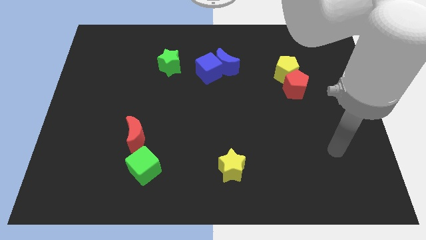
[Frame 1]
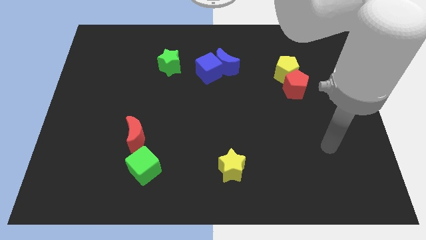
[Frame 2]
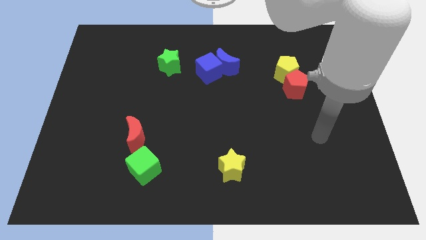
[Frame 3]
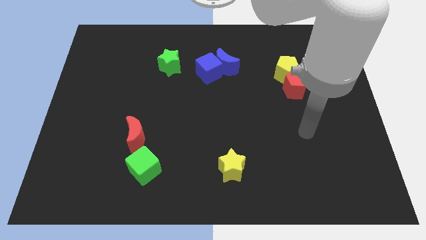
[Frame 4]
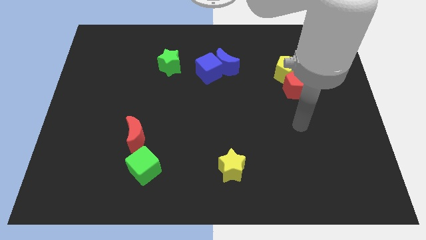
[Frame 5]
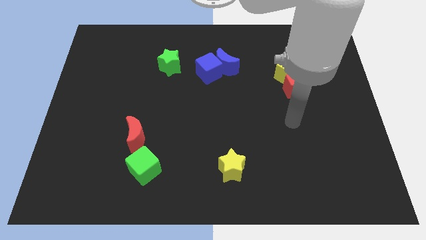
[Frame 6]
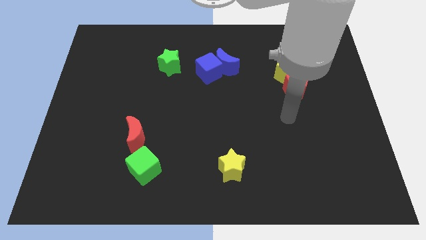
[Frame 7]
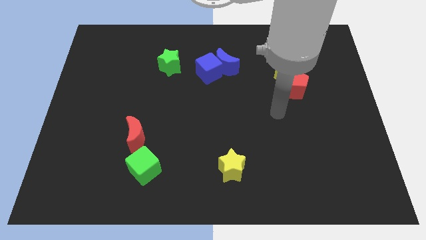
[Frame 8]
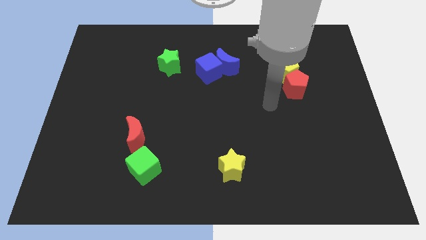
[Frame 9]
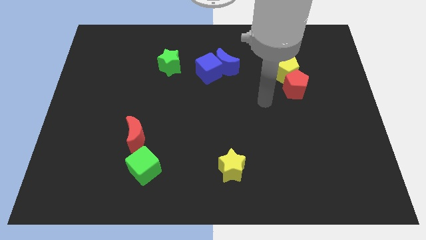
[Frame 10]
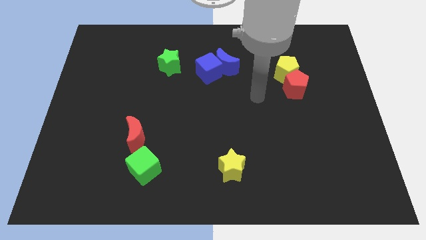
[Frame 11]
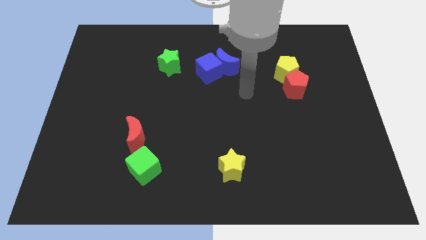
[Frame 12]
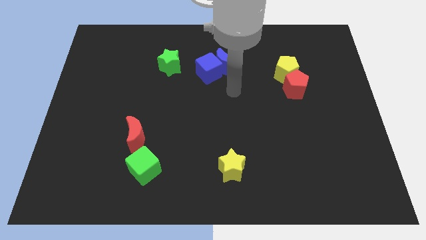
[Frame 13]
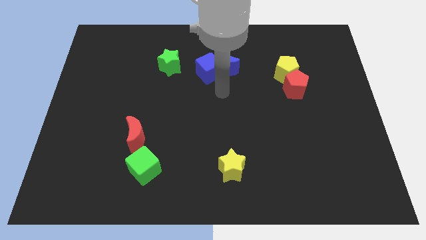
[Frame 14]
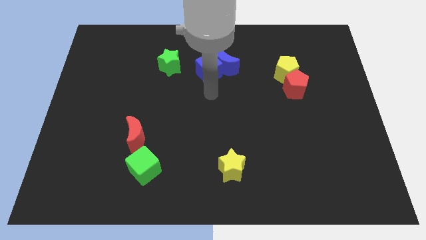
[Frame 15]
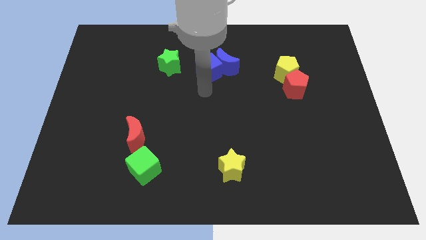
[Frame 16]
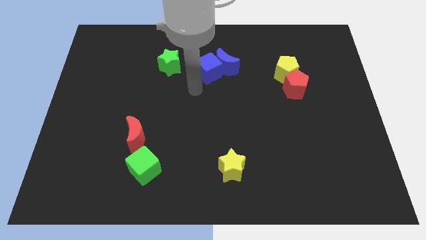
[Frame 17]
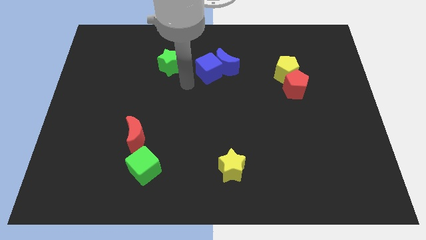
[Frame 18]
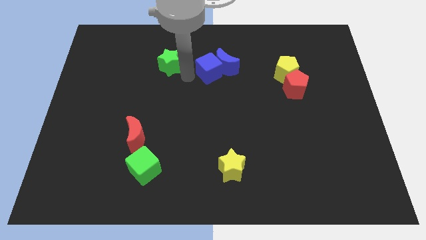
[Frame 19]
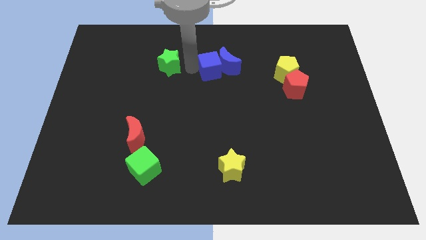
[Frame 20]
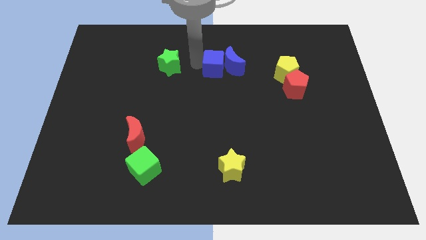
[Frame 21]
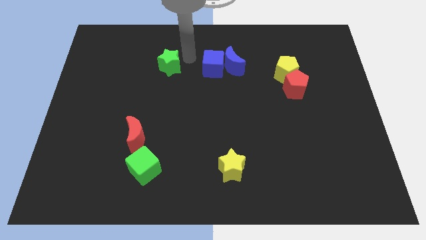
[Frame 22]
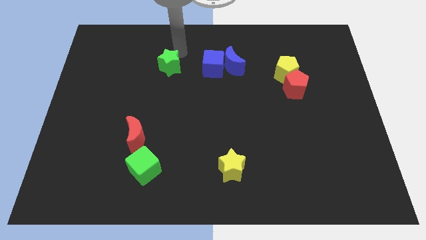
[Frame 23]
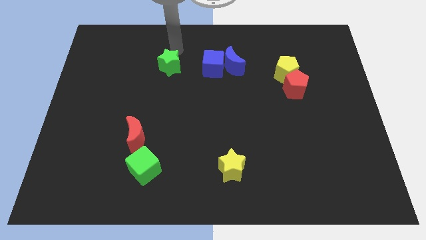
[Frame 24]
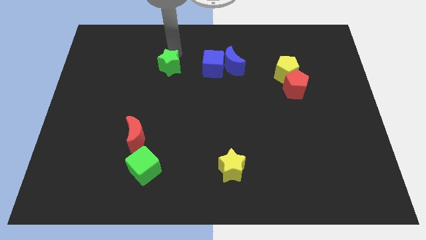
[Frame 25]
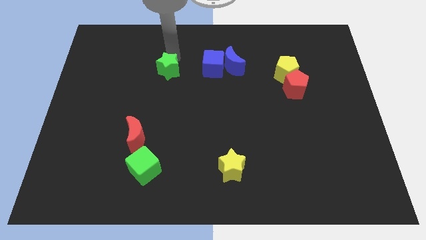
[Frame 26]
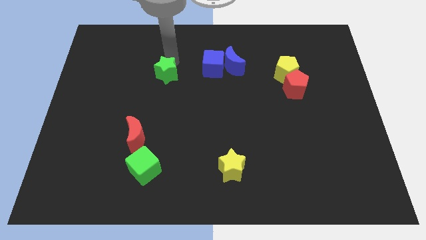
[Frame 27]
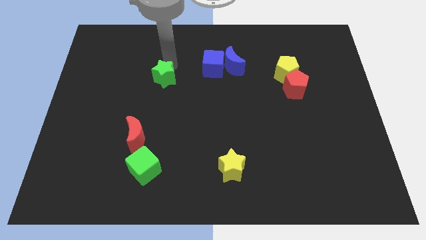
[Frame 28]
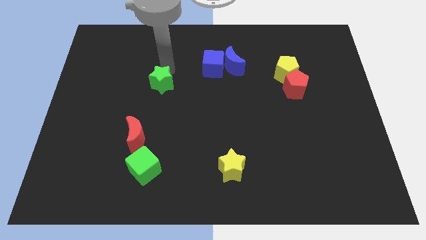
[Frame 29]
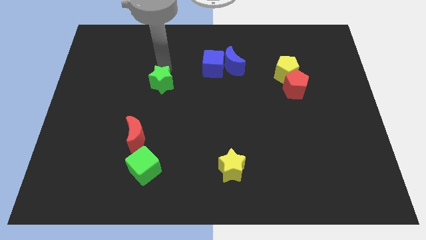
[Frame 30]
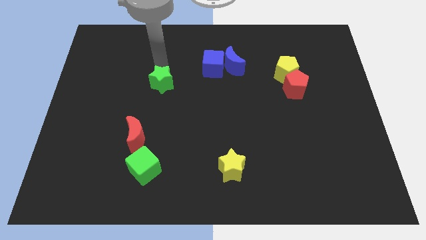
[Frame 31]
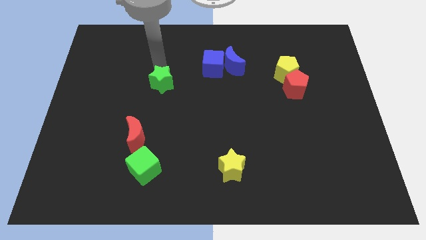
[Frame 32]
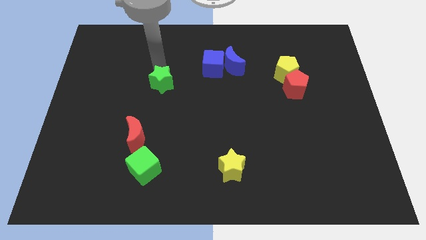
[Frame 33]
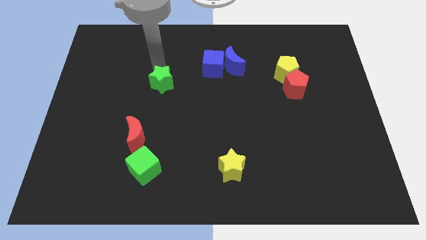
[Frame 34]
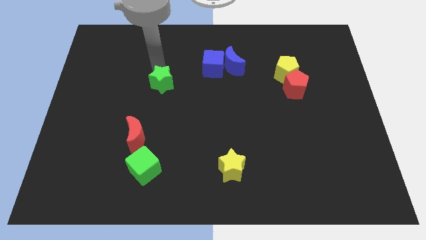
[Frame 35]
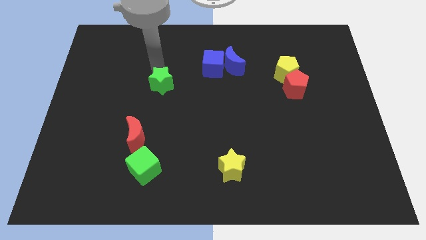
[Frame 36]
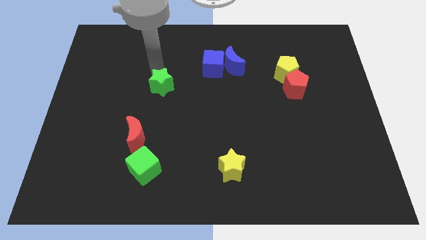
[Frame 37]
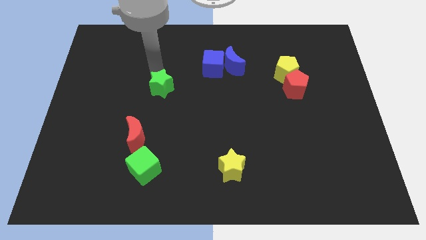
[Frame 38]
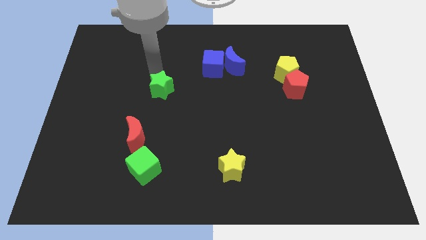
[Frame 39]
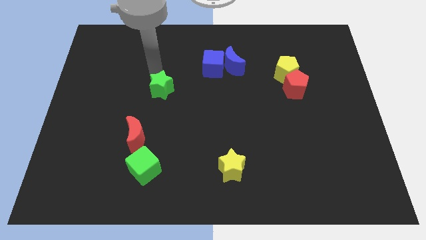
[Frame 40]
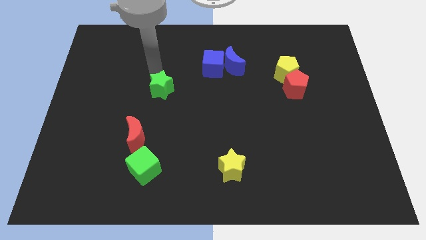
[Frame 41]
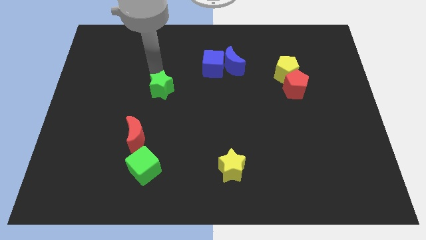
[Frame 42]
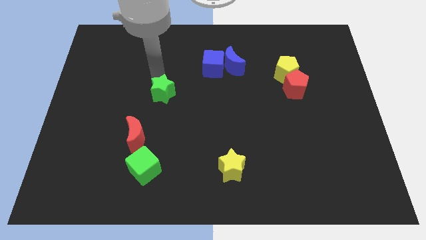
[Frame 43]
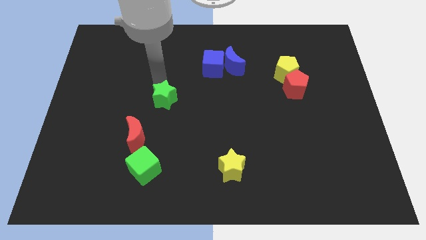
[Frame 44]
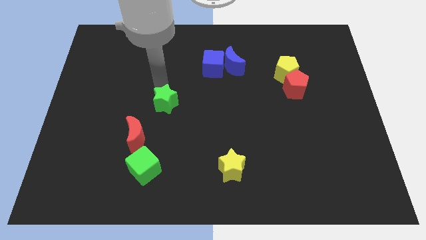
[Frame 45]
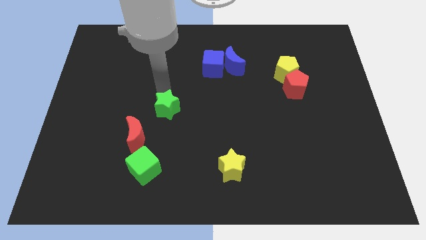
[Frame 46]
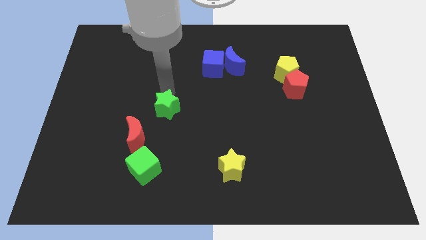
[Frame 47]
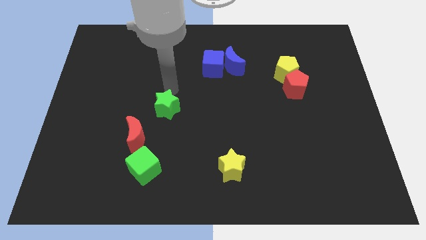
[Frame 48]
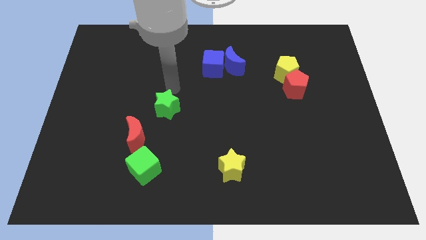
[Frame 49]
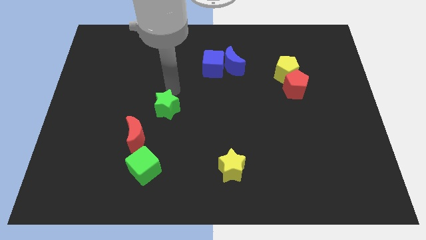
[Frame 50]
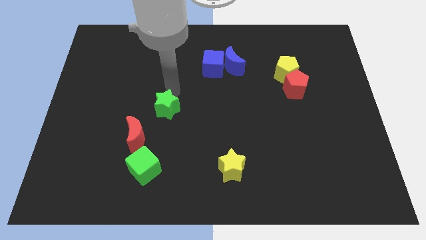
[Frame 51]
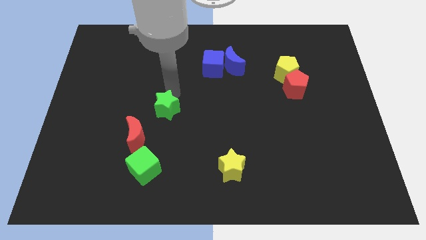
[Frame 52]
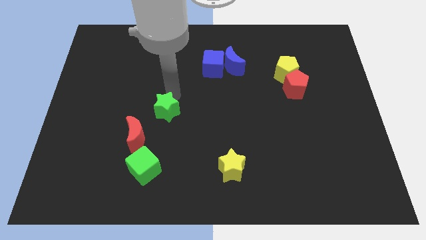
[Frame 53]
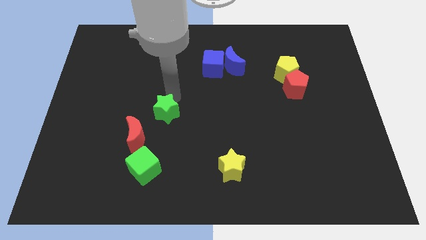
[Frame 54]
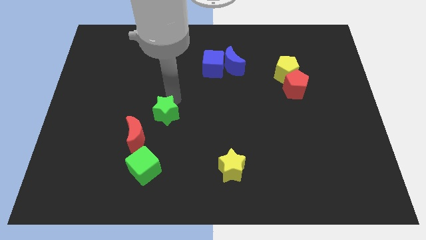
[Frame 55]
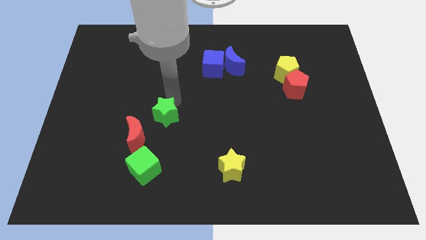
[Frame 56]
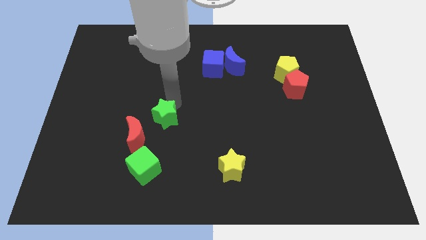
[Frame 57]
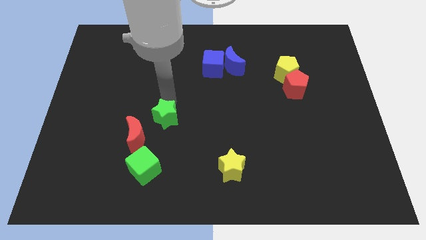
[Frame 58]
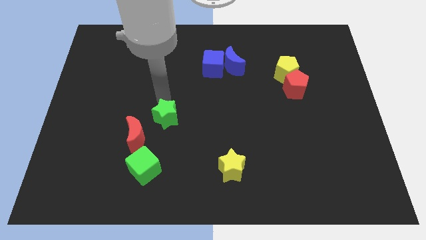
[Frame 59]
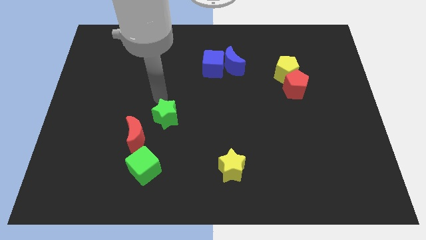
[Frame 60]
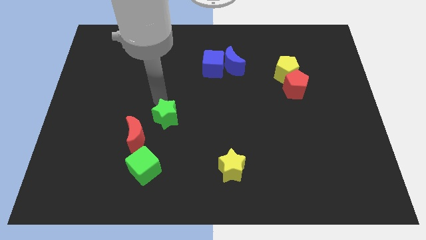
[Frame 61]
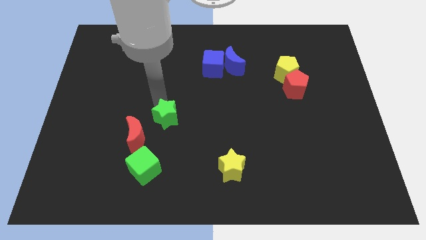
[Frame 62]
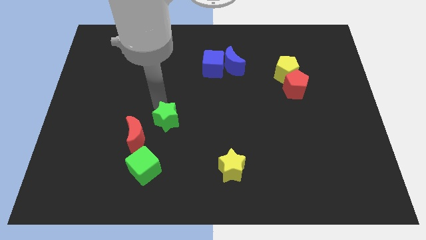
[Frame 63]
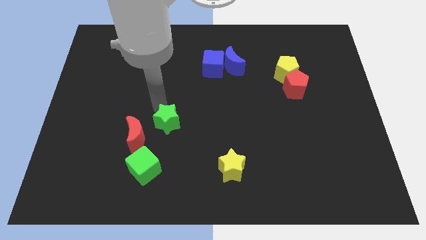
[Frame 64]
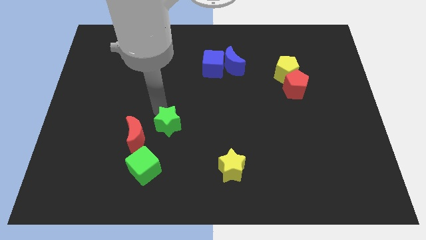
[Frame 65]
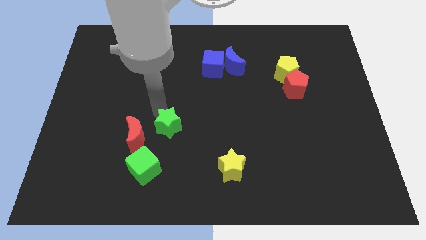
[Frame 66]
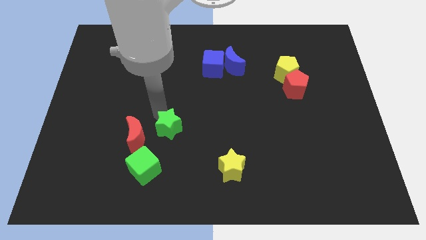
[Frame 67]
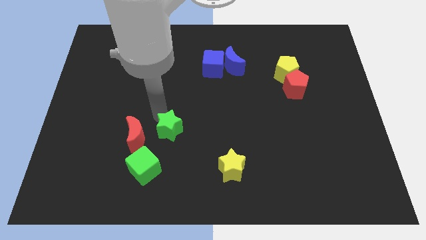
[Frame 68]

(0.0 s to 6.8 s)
push the green star down

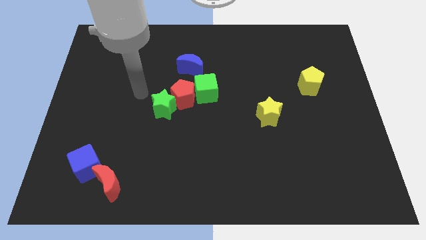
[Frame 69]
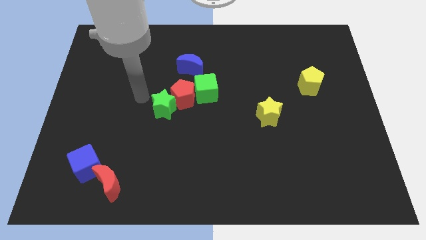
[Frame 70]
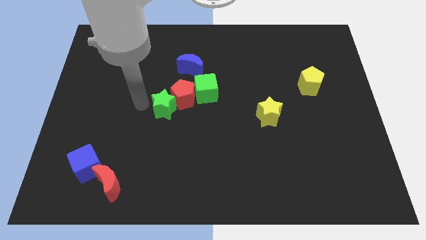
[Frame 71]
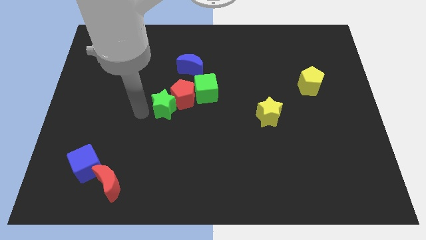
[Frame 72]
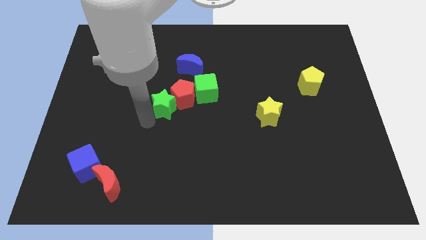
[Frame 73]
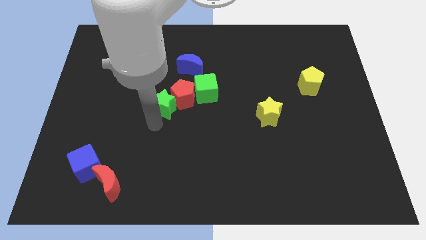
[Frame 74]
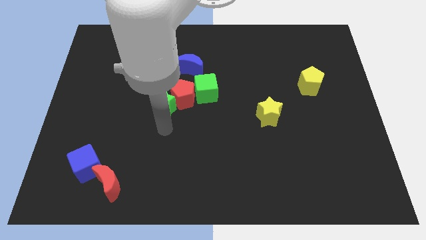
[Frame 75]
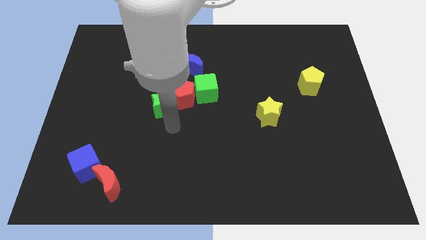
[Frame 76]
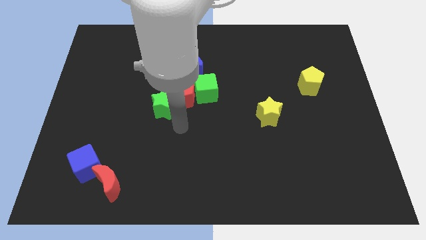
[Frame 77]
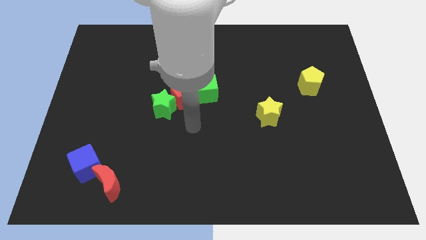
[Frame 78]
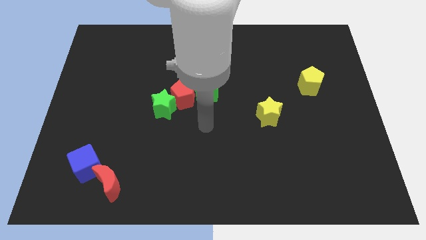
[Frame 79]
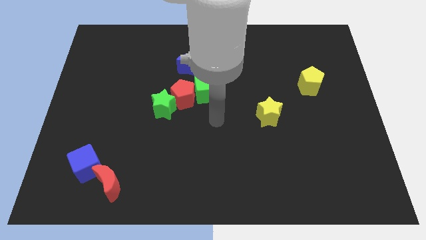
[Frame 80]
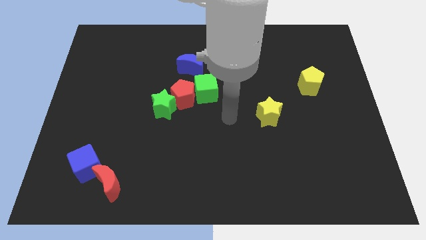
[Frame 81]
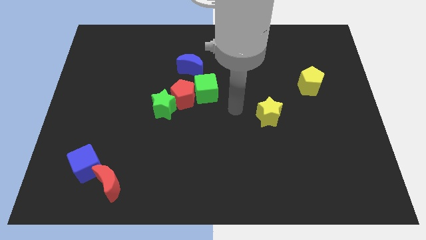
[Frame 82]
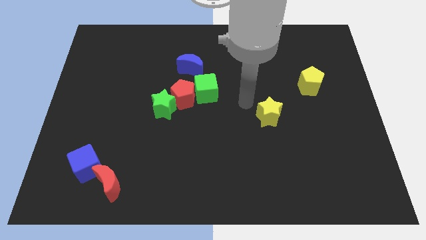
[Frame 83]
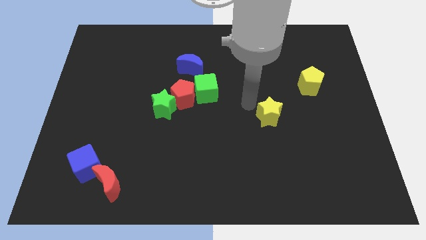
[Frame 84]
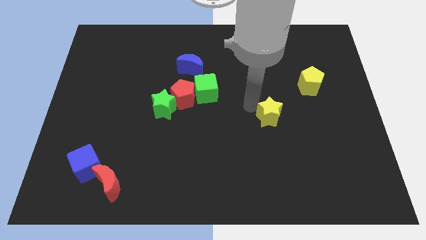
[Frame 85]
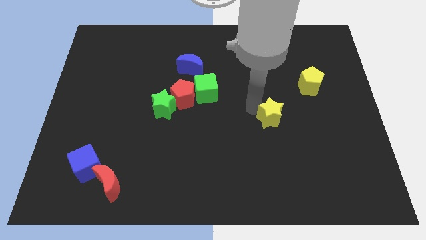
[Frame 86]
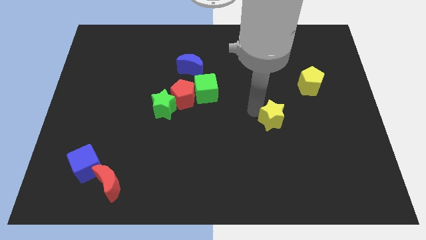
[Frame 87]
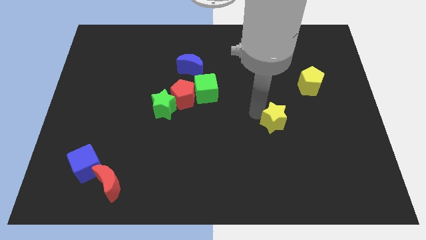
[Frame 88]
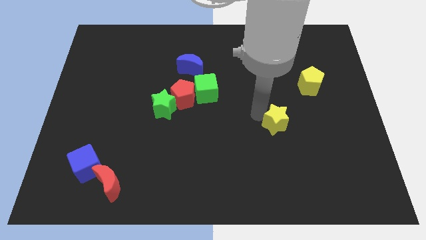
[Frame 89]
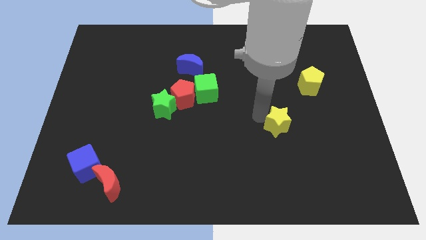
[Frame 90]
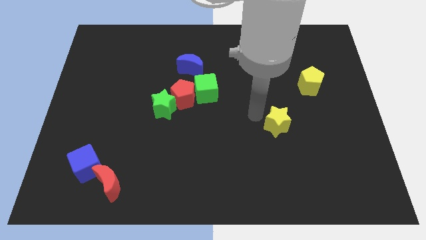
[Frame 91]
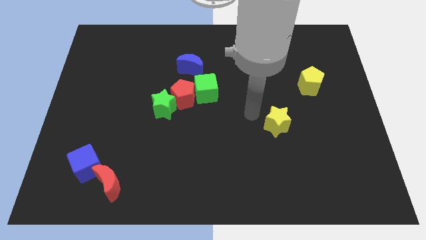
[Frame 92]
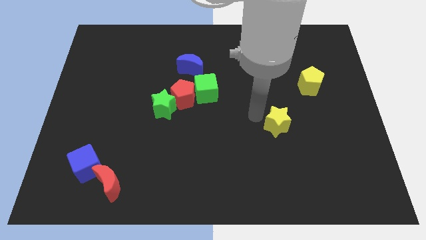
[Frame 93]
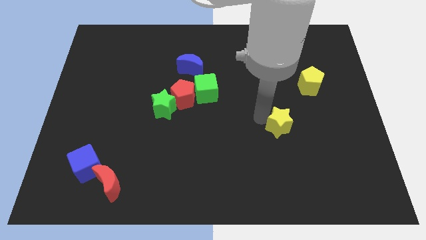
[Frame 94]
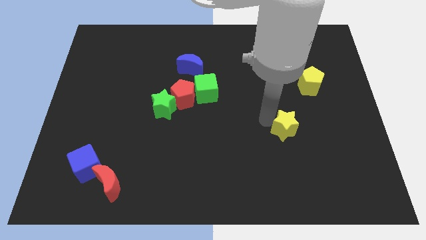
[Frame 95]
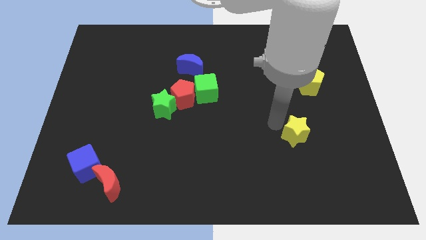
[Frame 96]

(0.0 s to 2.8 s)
slide the yellow star downwards and right diagonally a little
